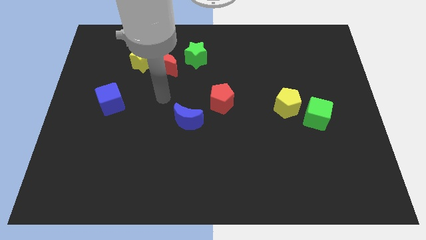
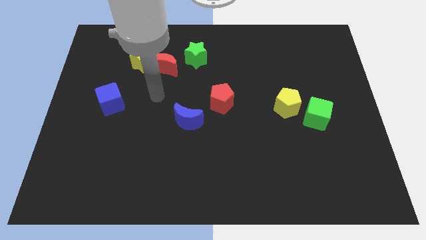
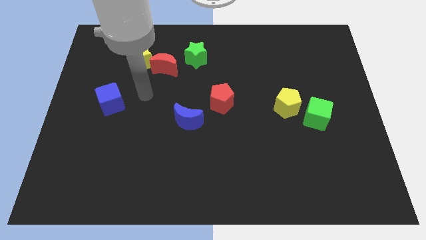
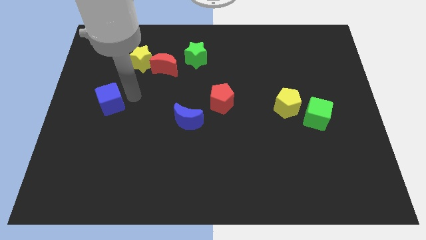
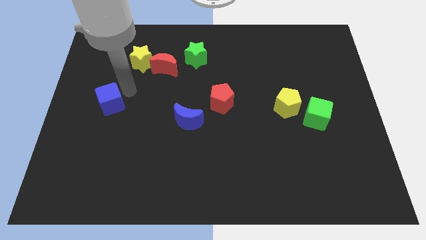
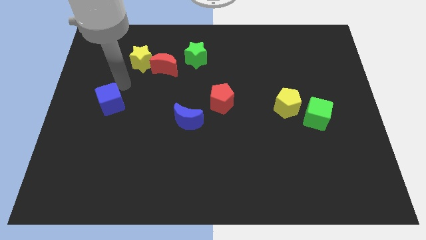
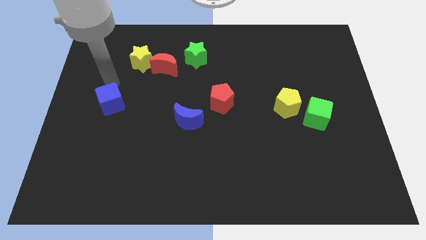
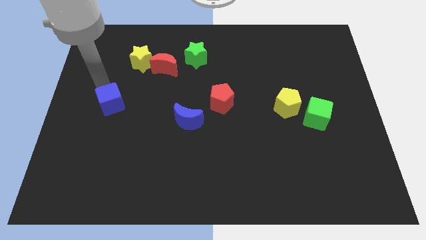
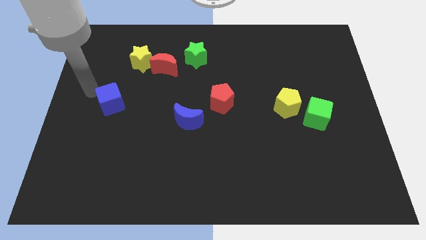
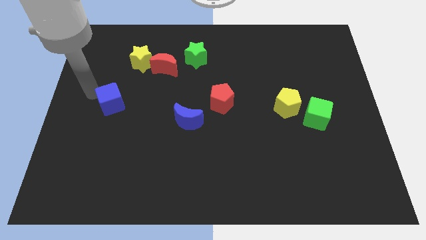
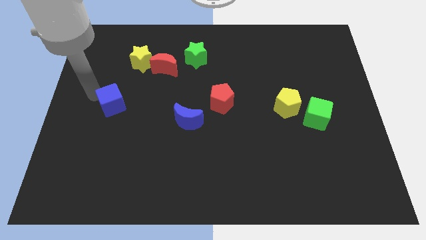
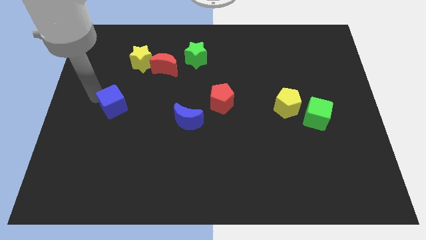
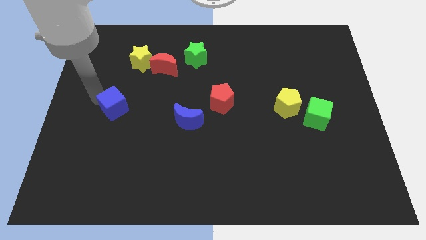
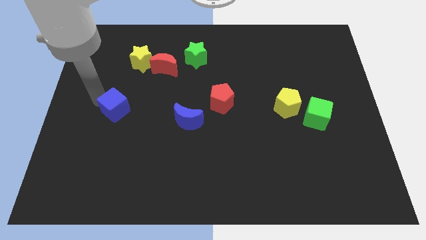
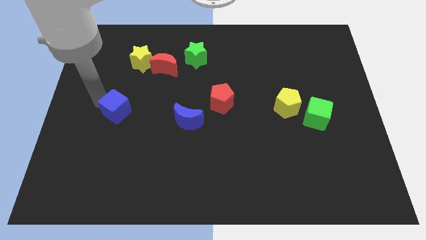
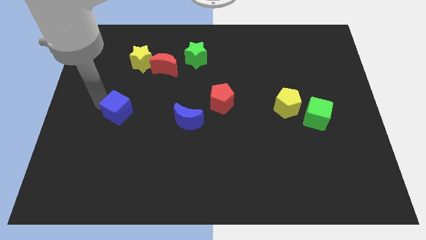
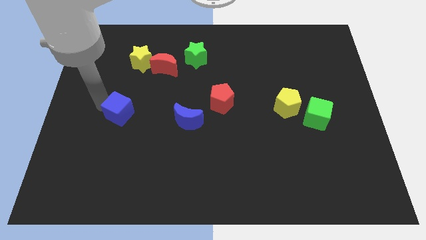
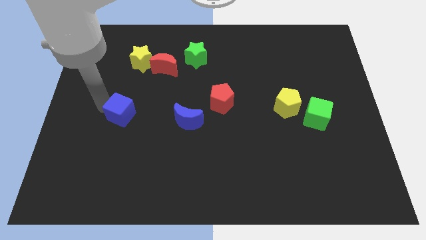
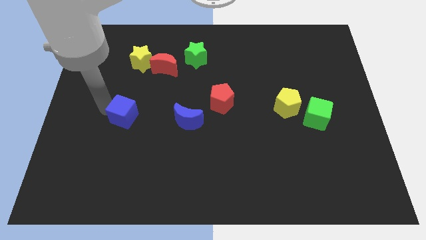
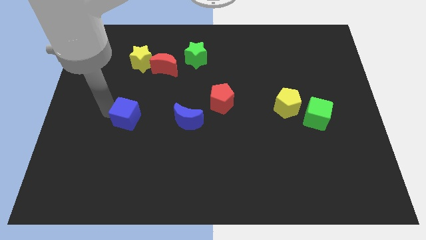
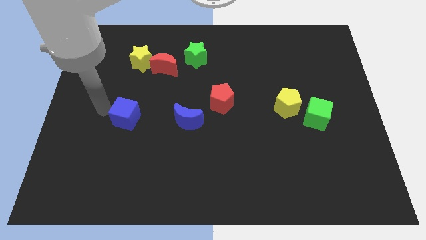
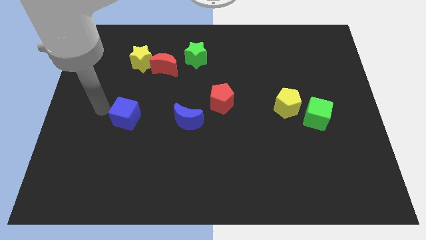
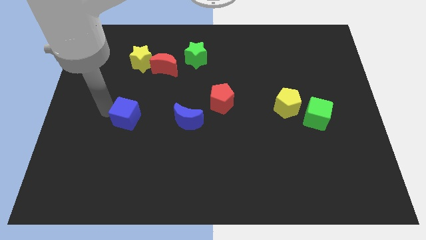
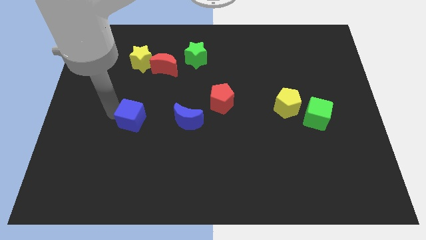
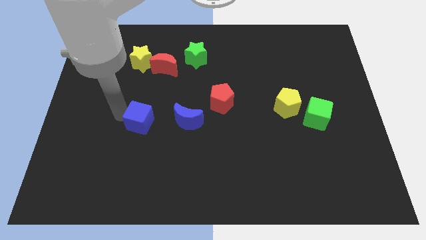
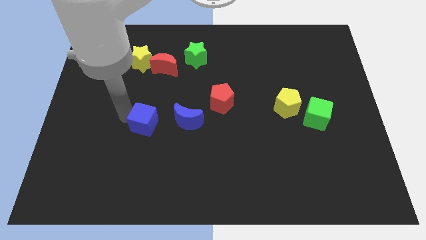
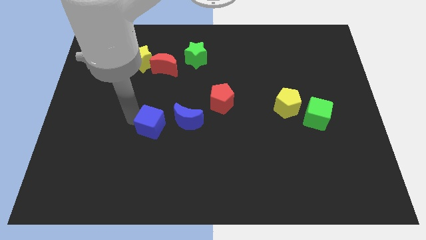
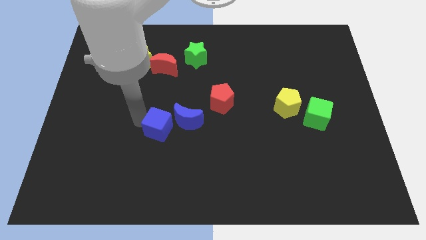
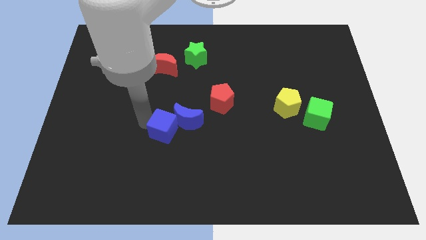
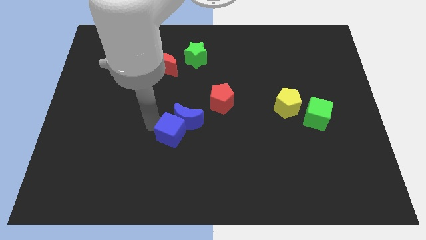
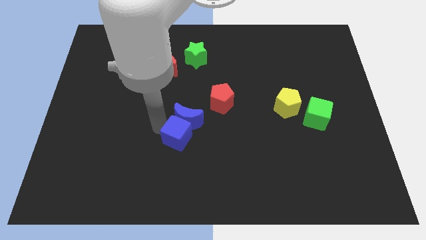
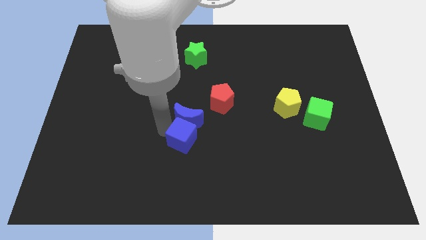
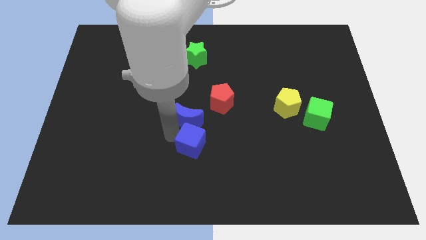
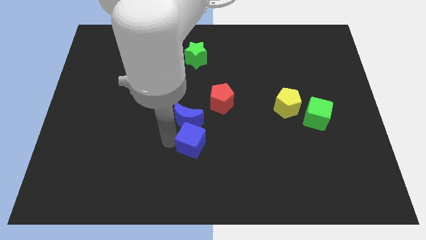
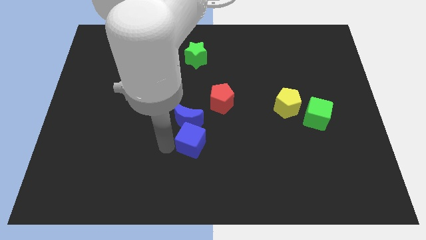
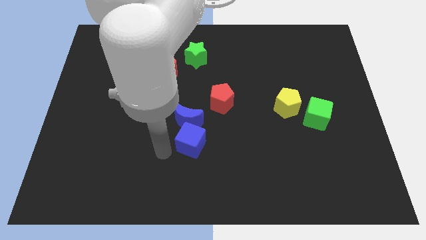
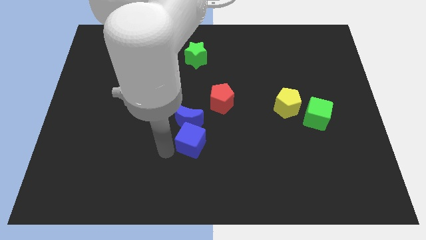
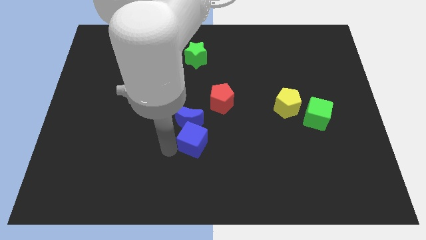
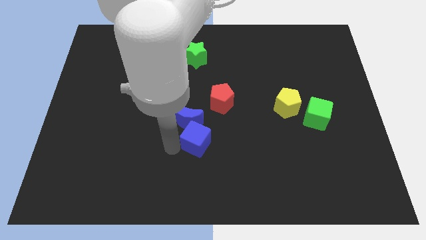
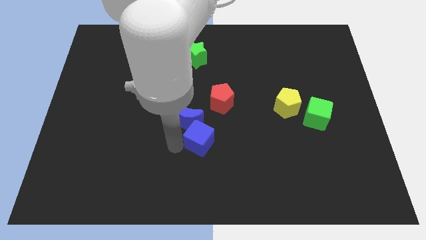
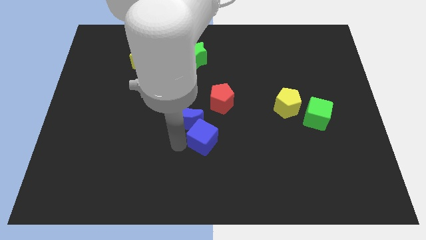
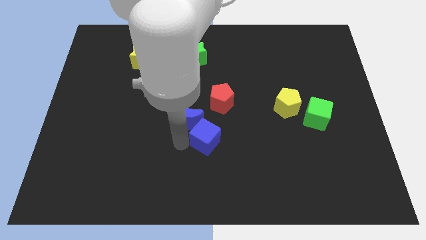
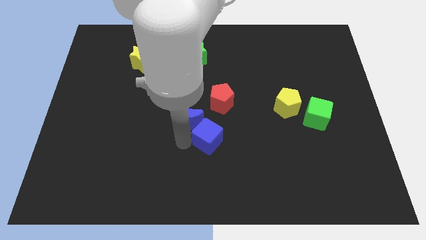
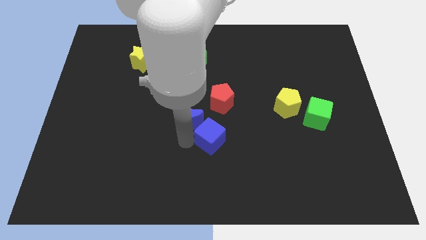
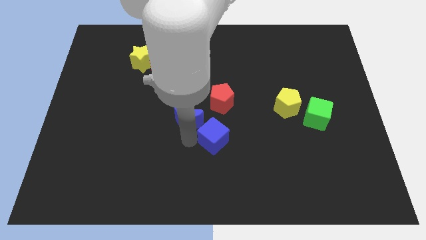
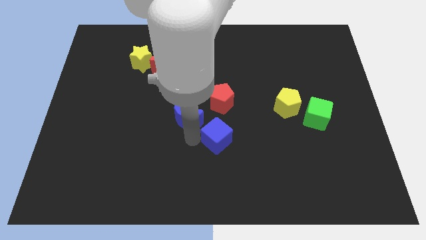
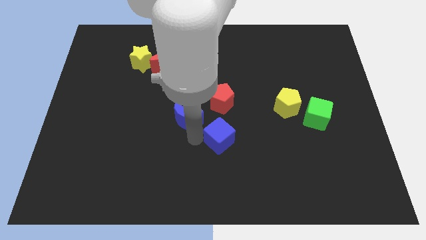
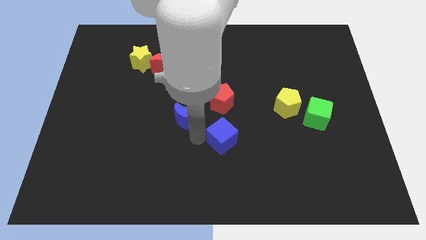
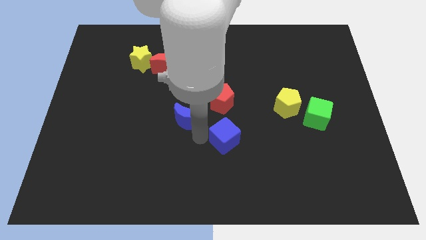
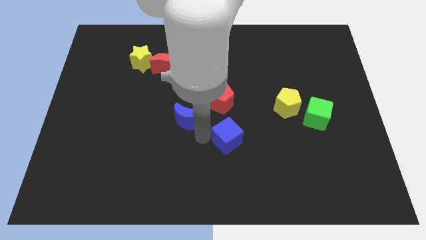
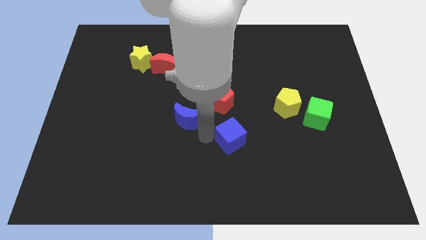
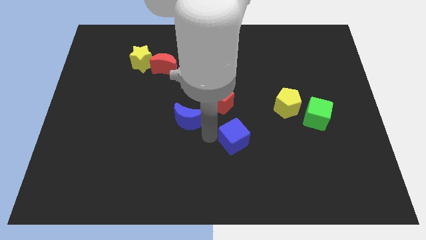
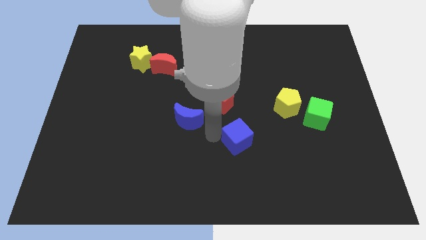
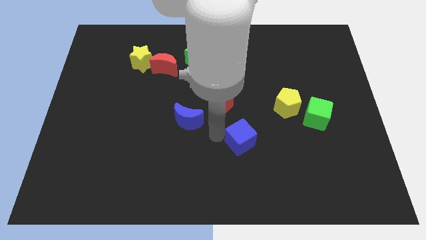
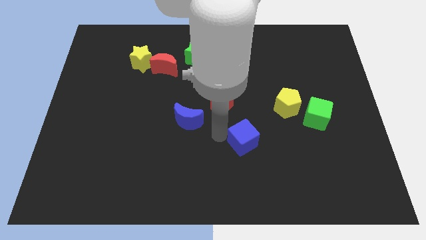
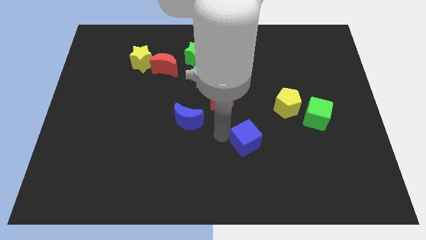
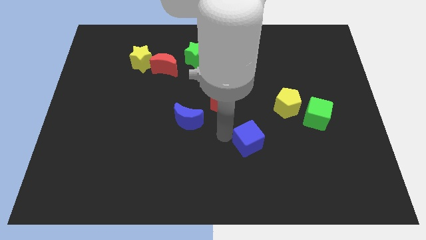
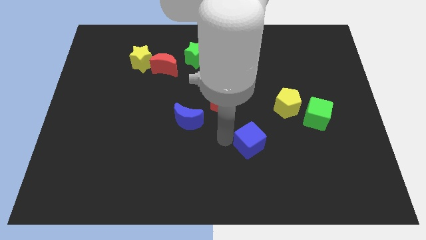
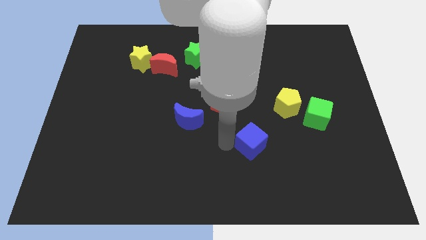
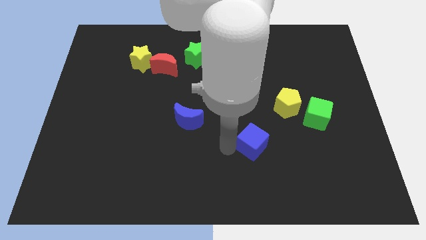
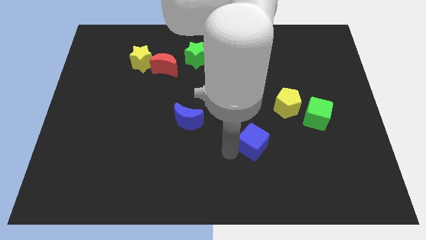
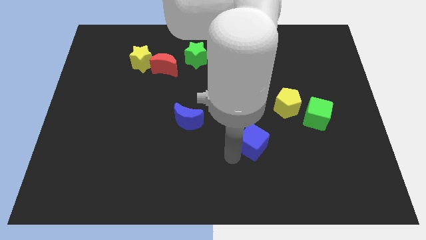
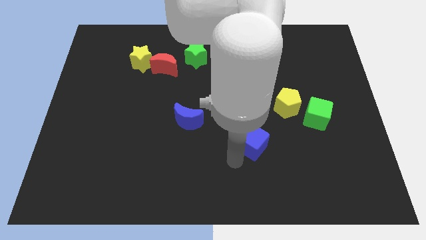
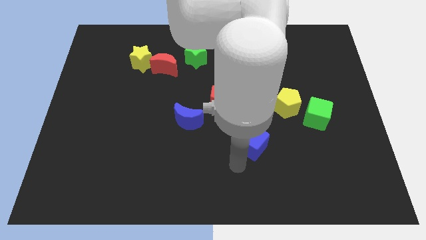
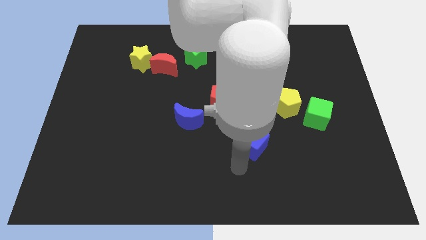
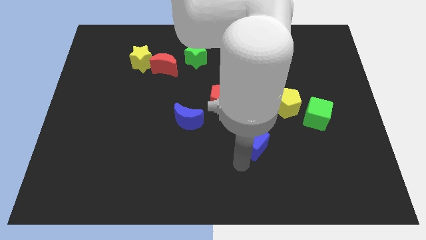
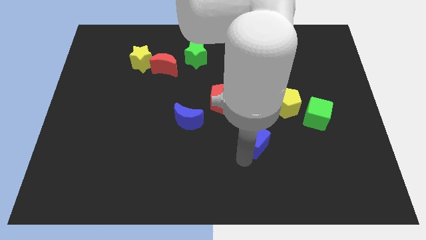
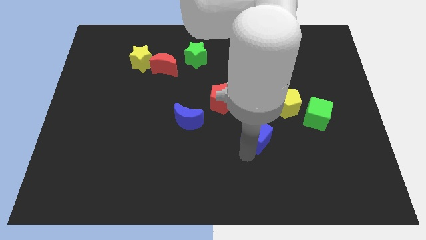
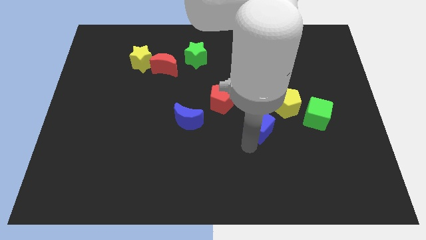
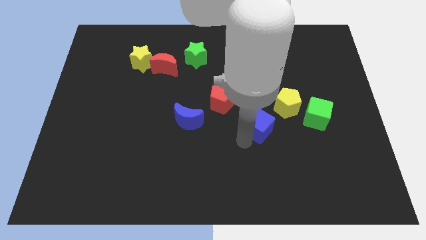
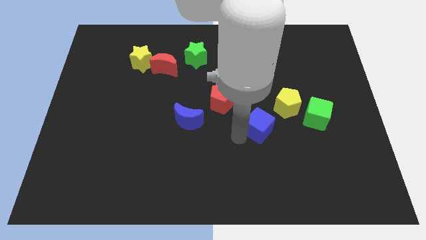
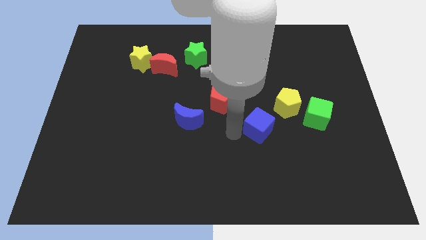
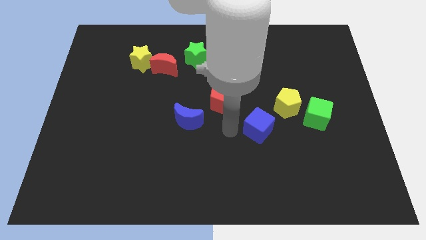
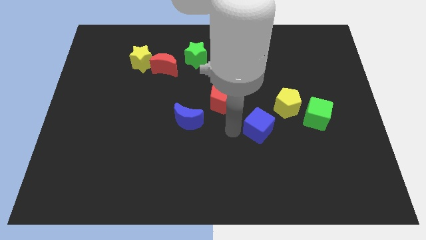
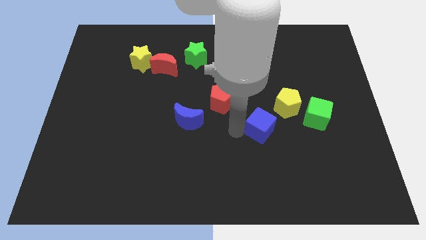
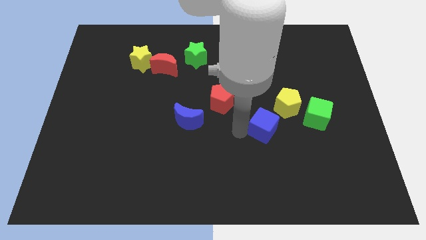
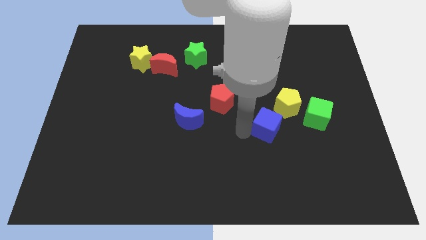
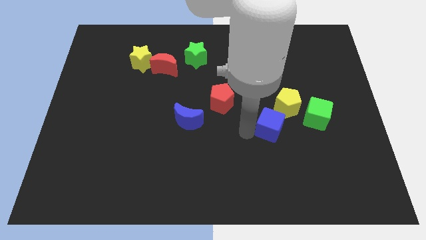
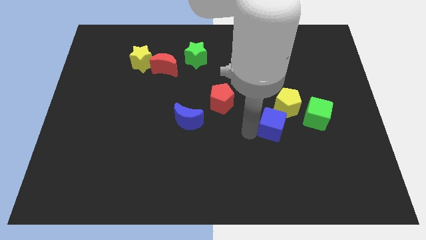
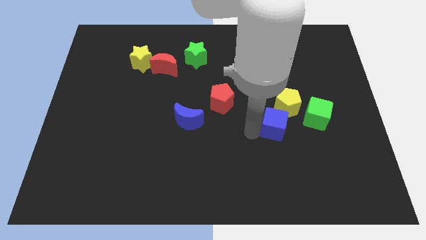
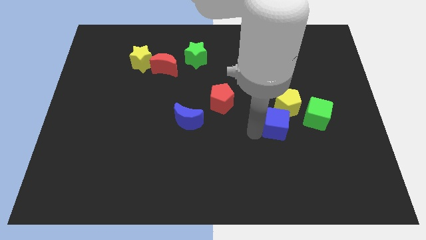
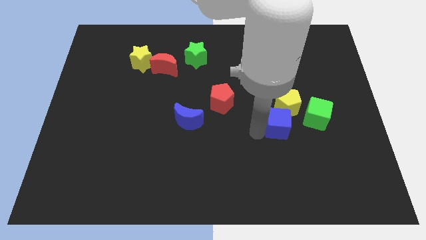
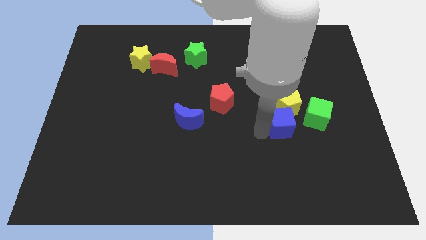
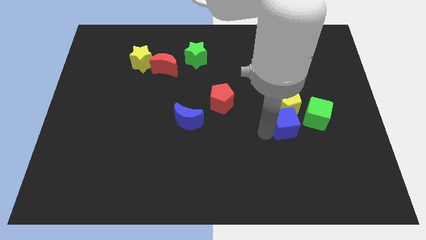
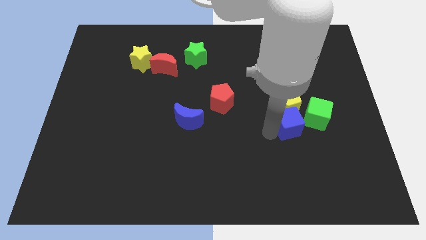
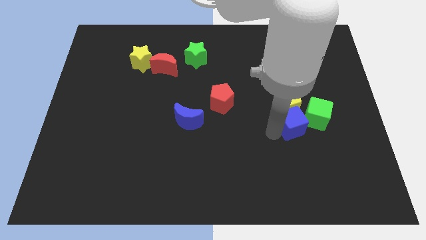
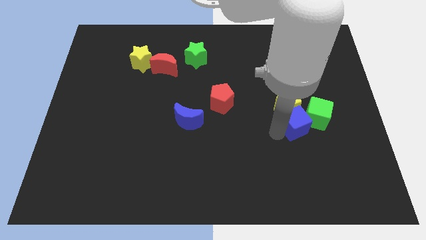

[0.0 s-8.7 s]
move the blue cube next to the green cube
